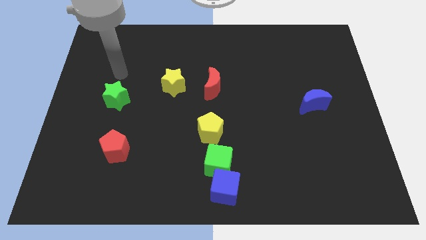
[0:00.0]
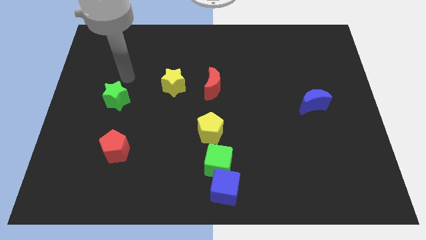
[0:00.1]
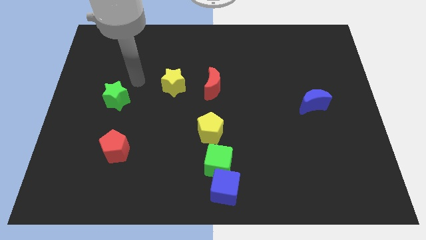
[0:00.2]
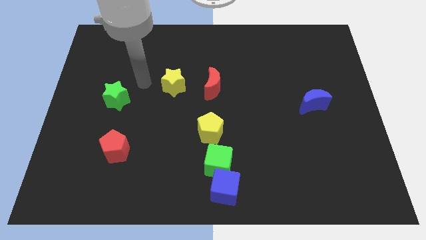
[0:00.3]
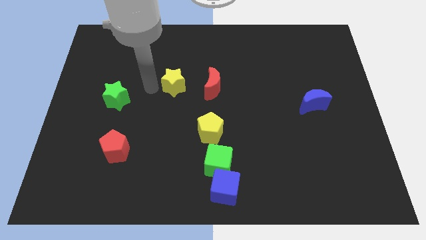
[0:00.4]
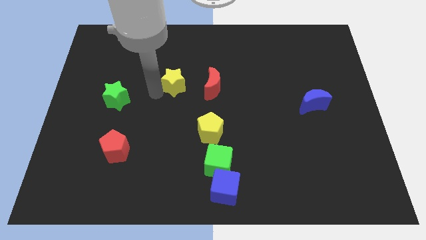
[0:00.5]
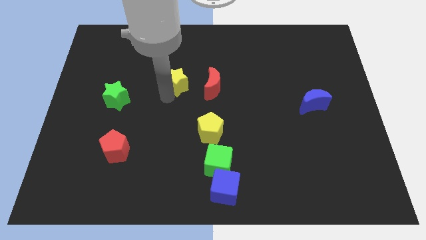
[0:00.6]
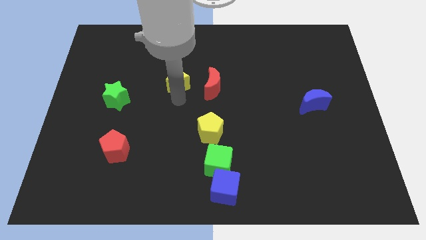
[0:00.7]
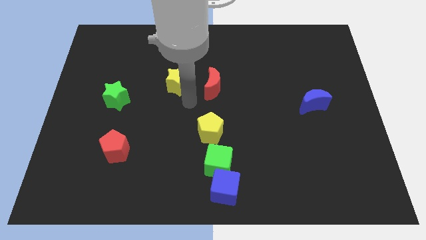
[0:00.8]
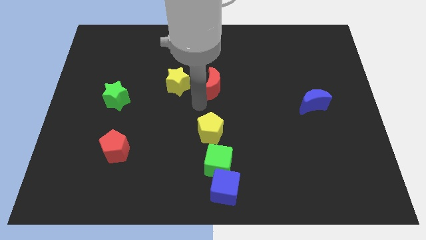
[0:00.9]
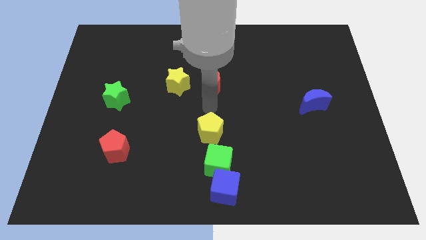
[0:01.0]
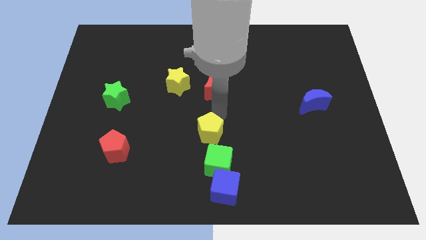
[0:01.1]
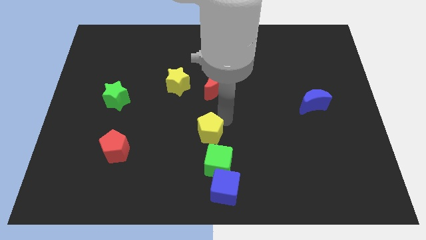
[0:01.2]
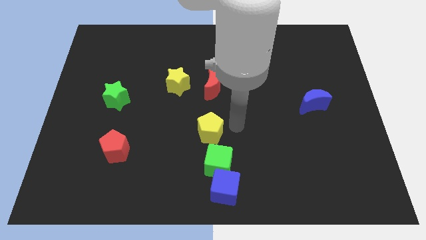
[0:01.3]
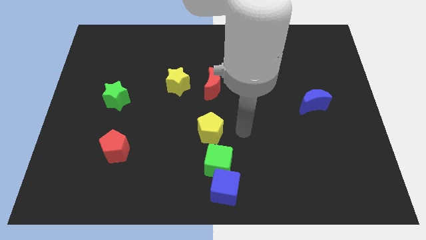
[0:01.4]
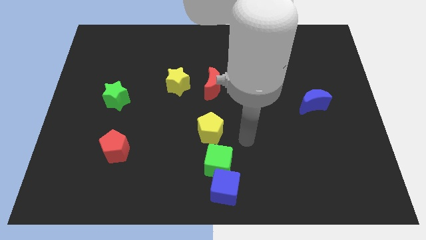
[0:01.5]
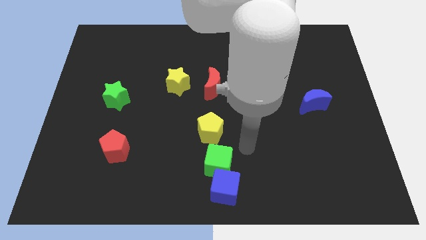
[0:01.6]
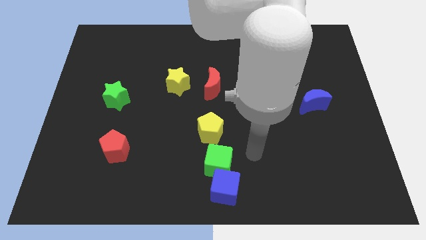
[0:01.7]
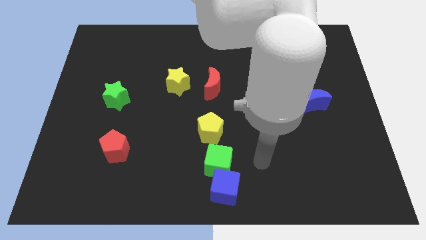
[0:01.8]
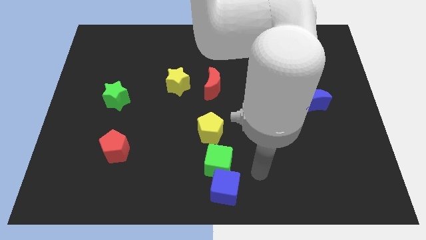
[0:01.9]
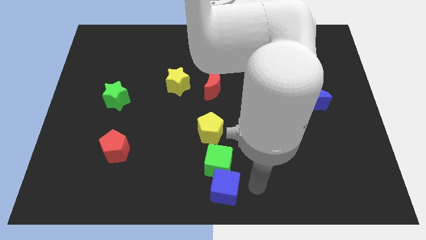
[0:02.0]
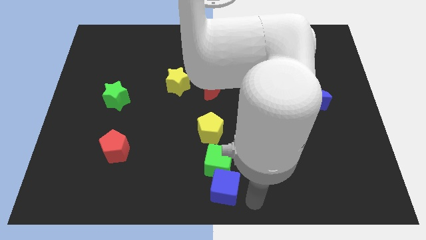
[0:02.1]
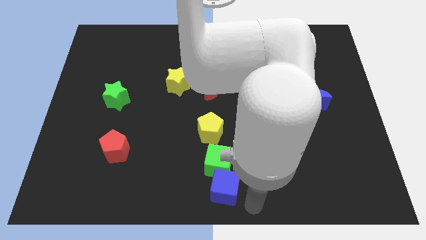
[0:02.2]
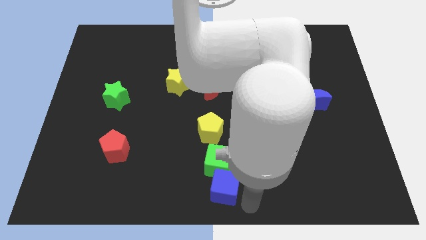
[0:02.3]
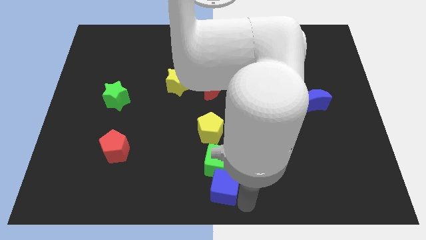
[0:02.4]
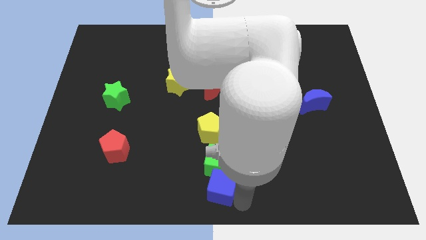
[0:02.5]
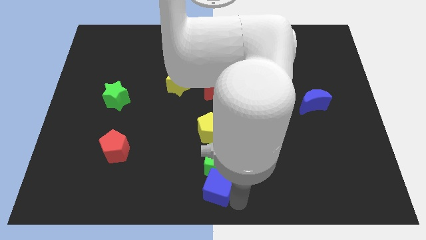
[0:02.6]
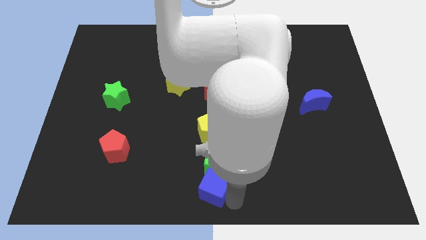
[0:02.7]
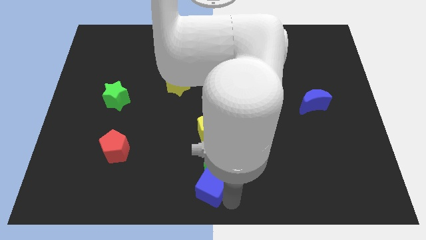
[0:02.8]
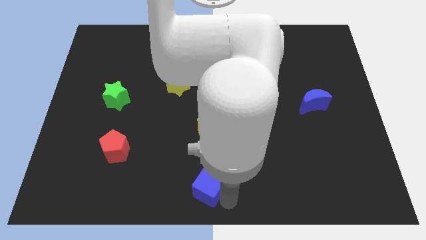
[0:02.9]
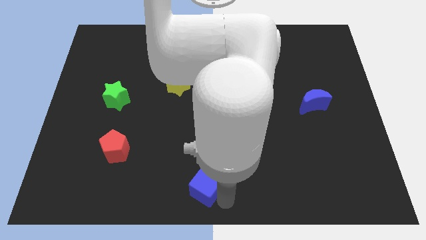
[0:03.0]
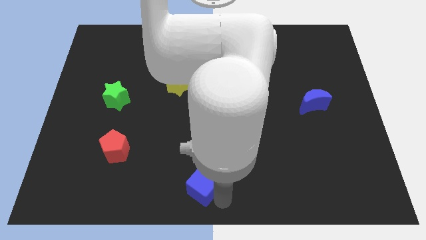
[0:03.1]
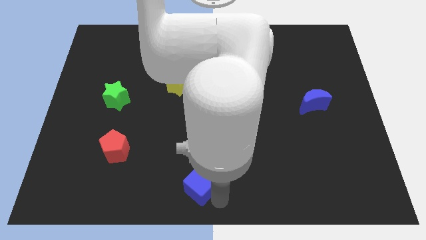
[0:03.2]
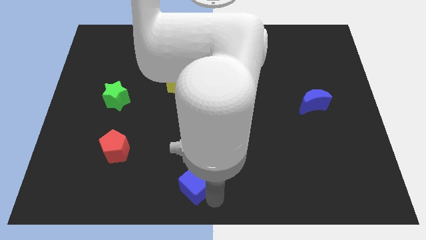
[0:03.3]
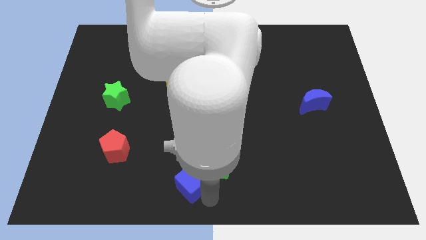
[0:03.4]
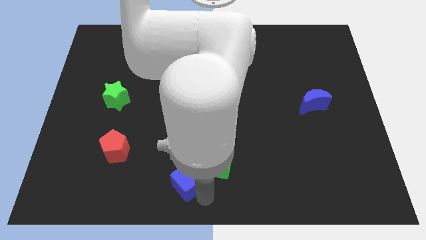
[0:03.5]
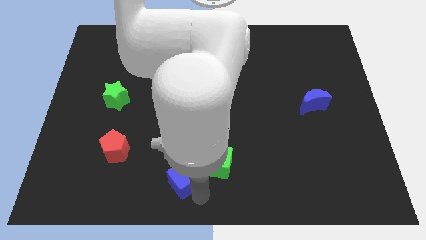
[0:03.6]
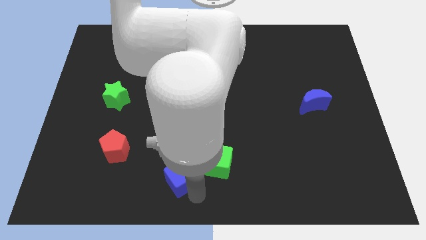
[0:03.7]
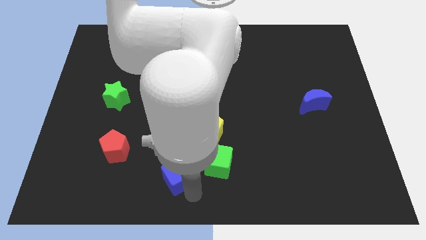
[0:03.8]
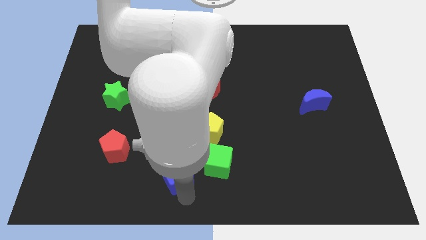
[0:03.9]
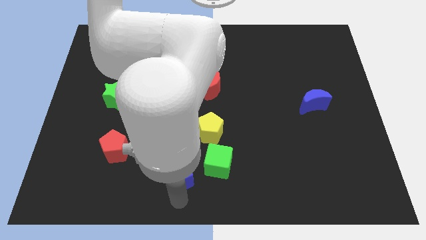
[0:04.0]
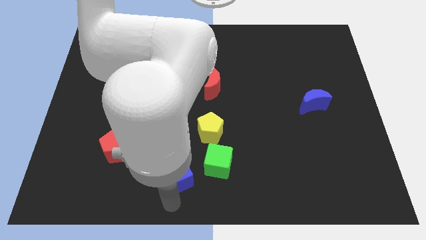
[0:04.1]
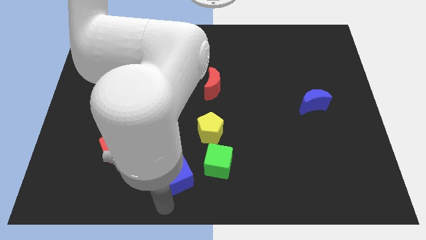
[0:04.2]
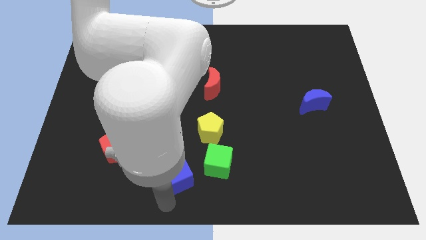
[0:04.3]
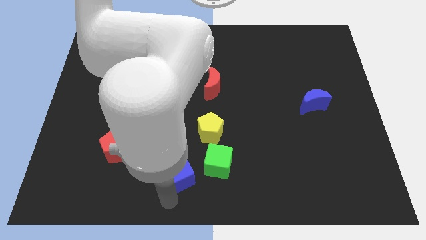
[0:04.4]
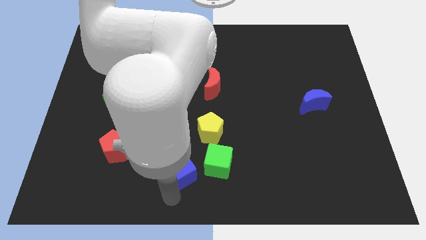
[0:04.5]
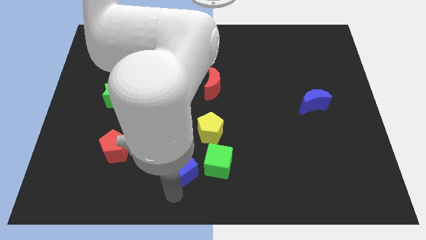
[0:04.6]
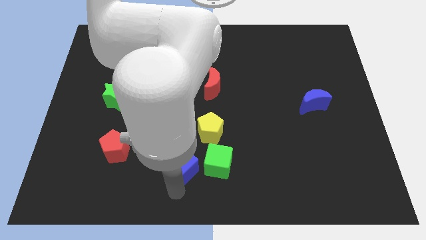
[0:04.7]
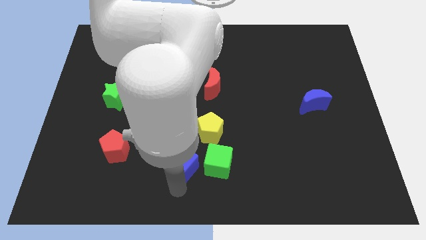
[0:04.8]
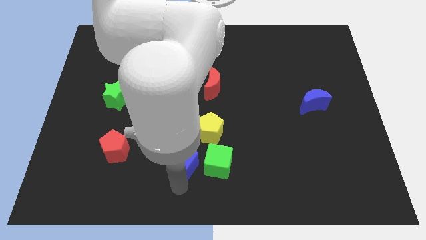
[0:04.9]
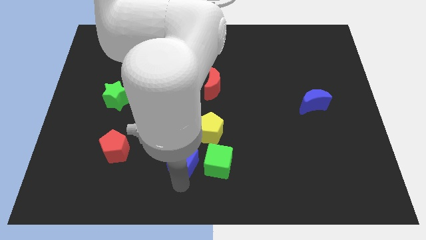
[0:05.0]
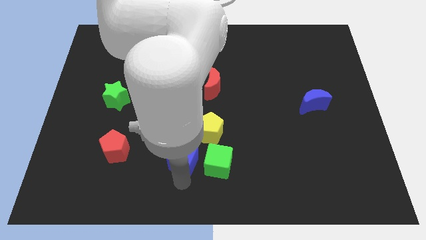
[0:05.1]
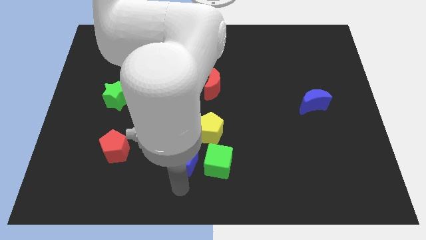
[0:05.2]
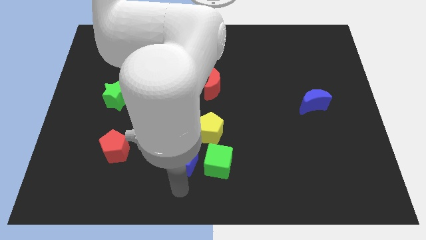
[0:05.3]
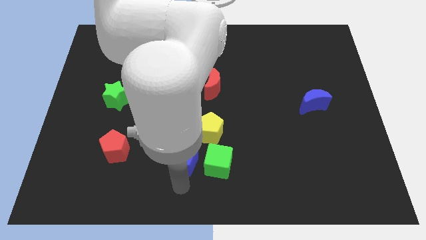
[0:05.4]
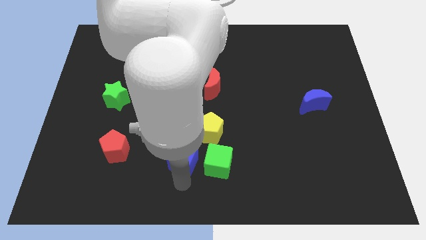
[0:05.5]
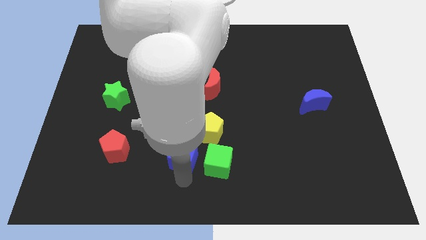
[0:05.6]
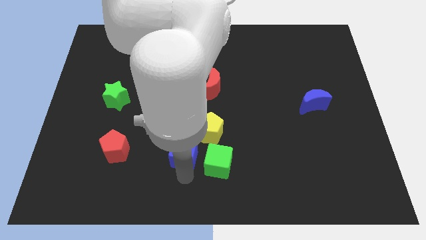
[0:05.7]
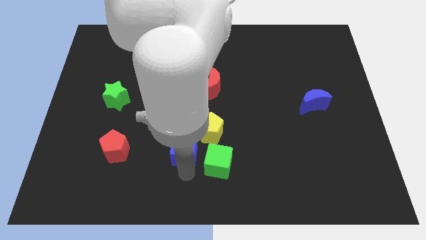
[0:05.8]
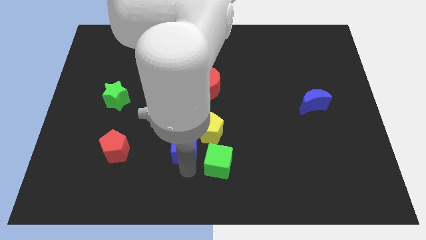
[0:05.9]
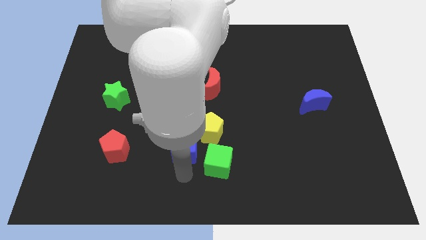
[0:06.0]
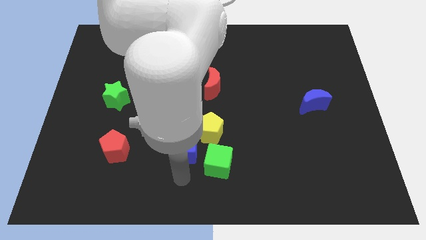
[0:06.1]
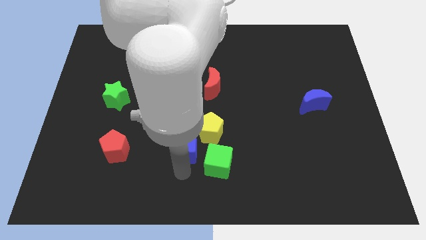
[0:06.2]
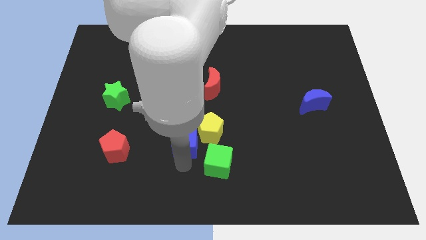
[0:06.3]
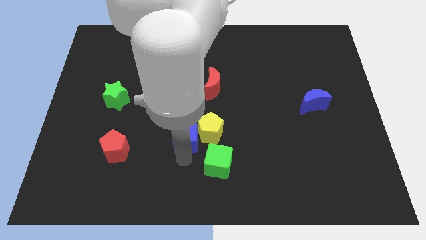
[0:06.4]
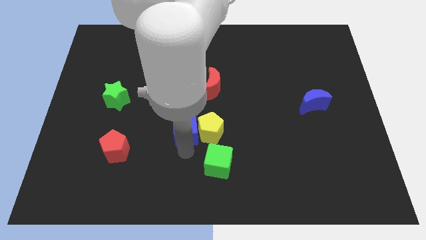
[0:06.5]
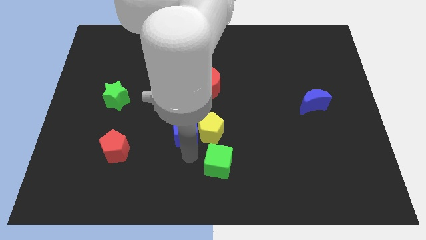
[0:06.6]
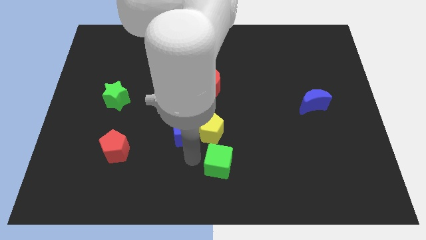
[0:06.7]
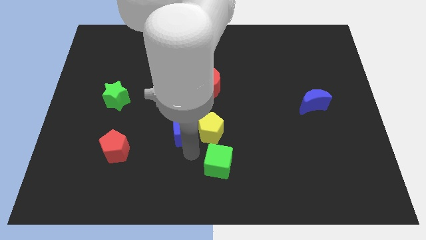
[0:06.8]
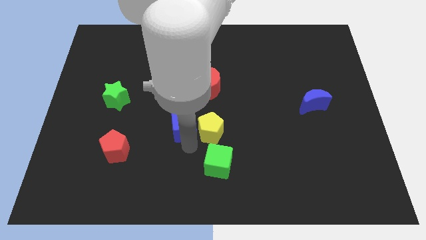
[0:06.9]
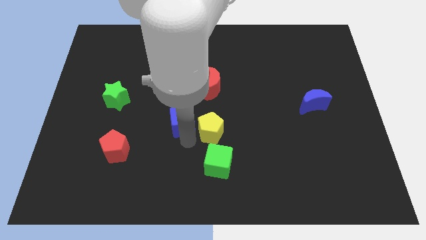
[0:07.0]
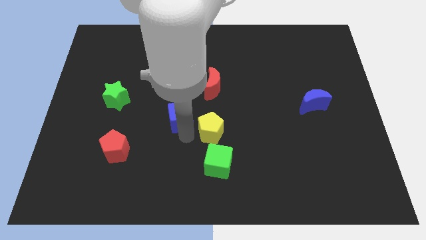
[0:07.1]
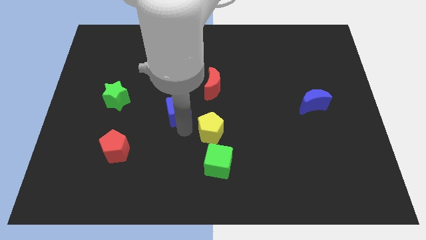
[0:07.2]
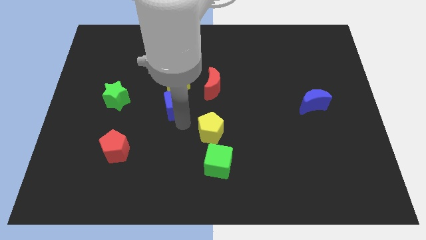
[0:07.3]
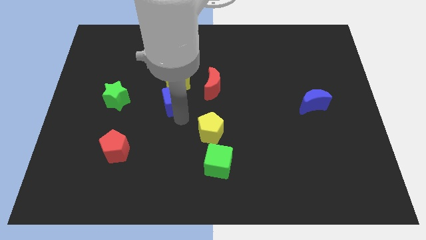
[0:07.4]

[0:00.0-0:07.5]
put the blue cube towards the yellow star
